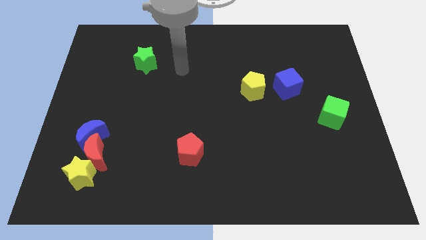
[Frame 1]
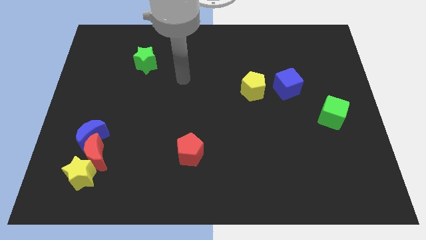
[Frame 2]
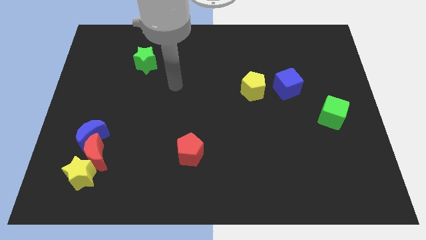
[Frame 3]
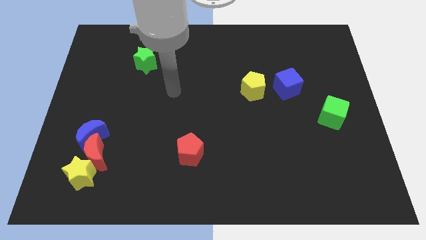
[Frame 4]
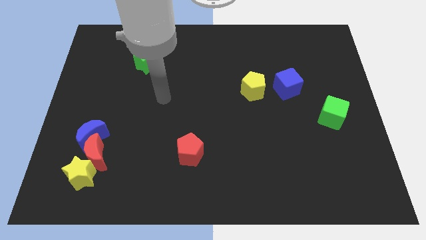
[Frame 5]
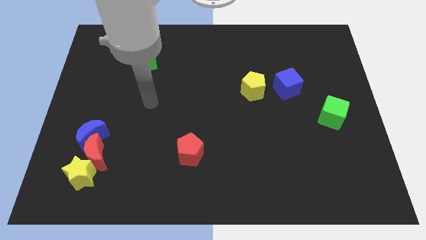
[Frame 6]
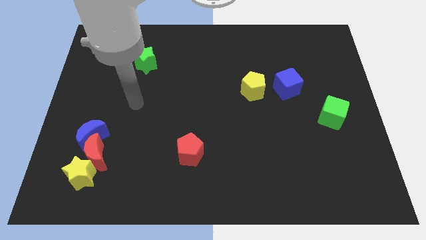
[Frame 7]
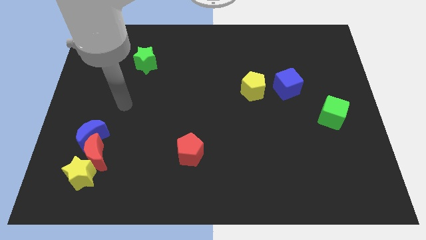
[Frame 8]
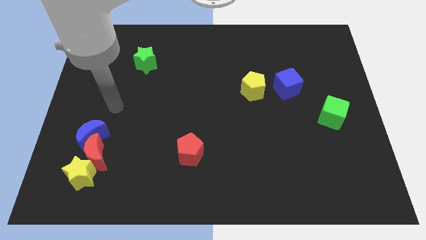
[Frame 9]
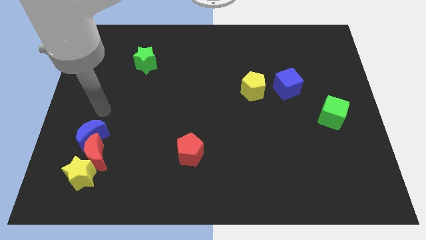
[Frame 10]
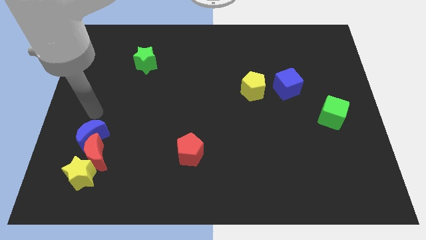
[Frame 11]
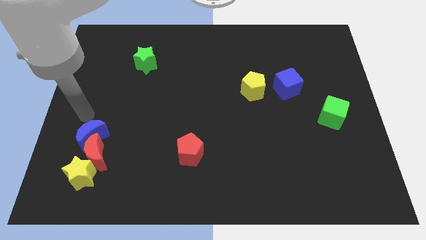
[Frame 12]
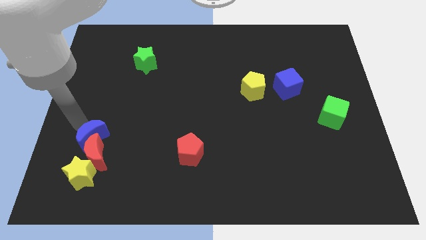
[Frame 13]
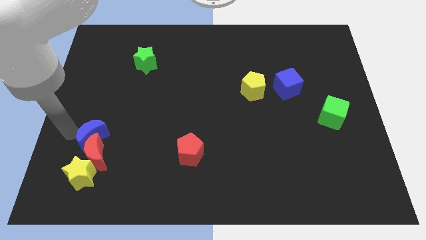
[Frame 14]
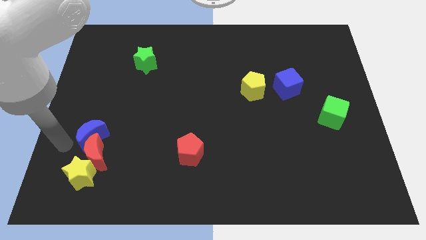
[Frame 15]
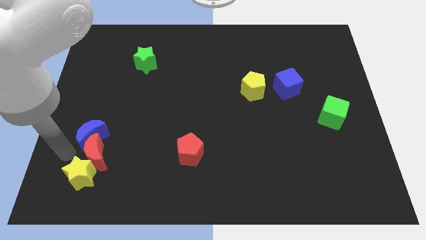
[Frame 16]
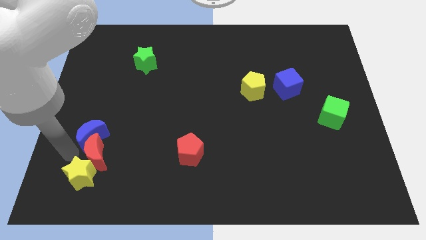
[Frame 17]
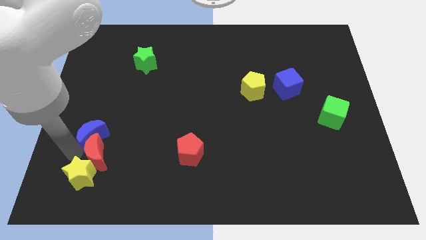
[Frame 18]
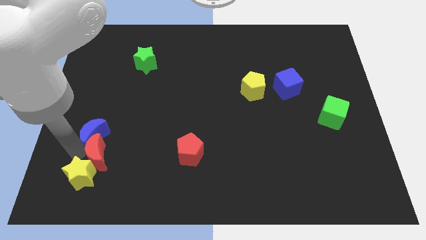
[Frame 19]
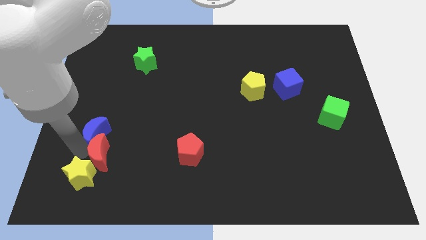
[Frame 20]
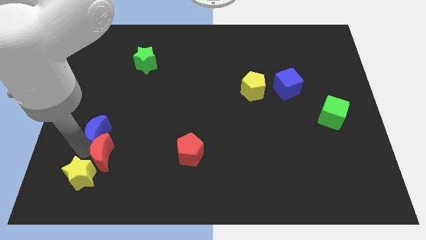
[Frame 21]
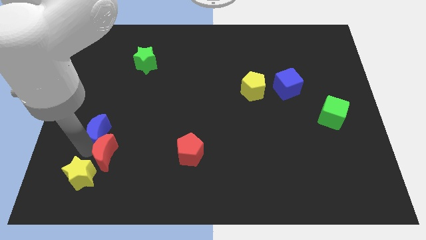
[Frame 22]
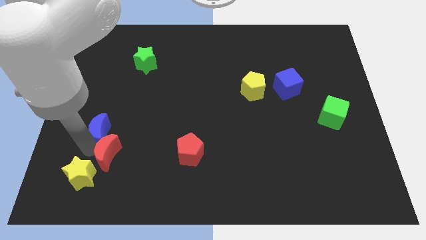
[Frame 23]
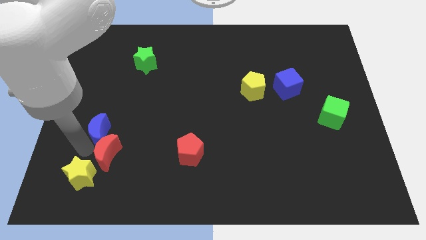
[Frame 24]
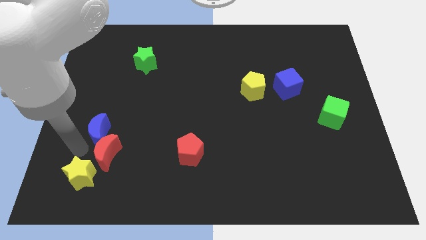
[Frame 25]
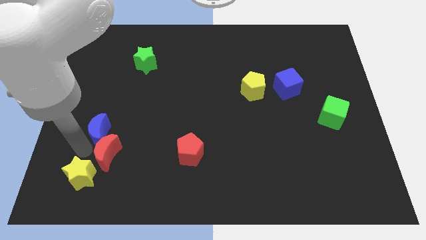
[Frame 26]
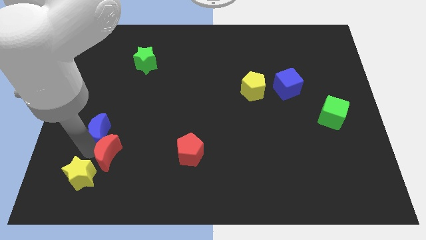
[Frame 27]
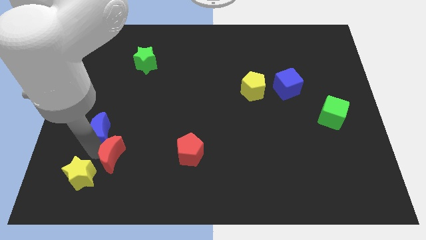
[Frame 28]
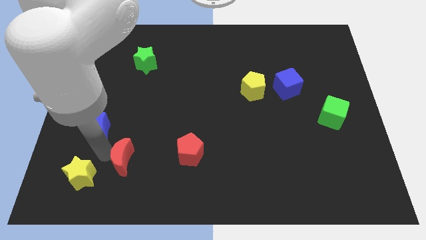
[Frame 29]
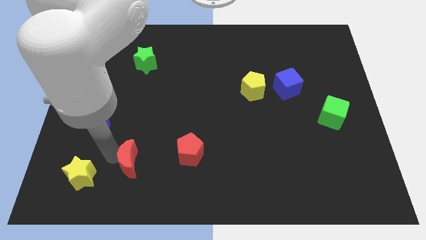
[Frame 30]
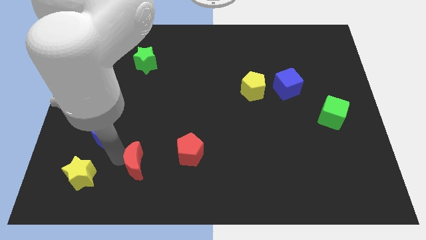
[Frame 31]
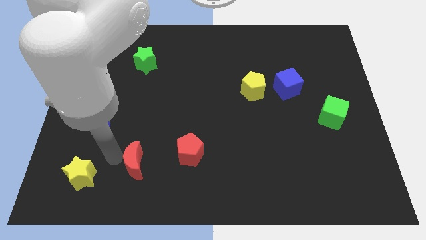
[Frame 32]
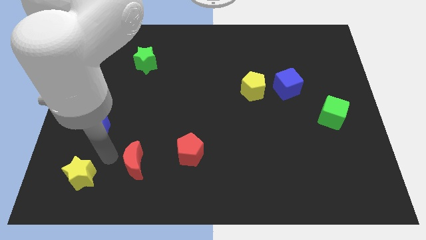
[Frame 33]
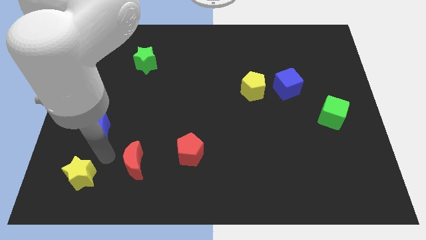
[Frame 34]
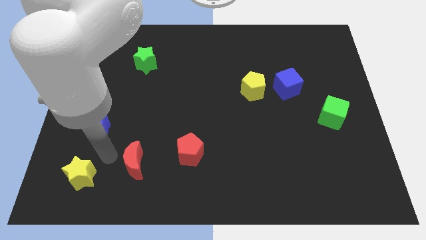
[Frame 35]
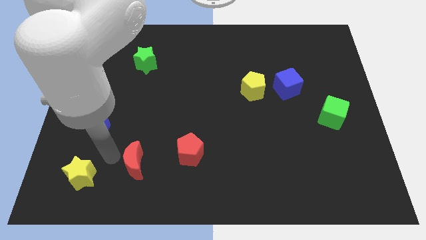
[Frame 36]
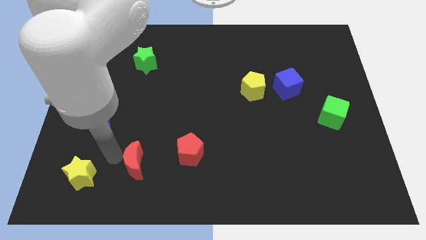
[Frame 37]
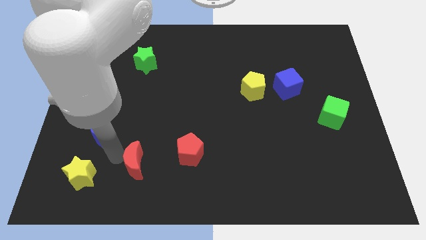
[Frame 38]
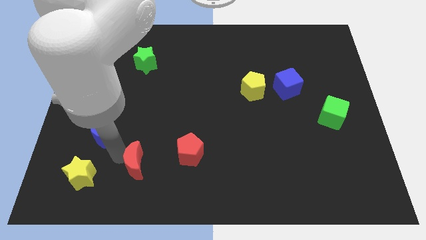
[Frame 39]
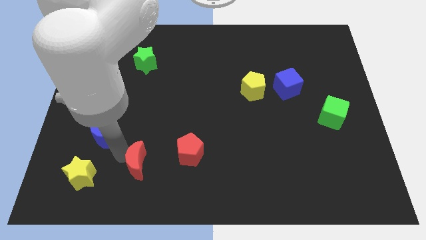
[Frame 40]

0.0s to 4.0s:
separate the red moon from the blue moon and yellow star

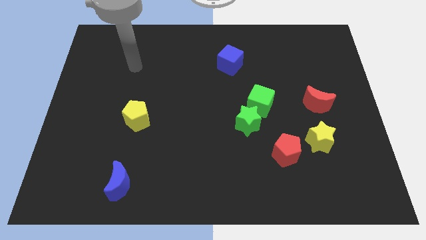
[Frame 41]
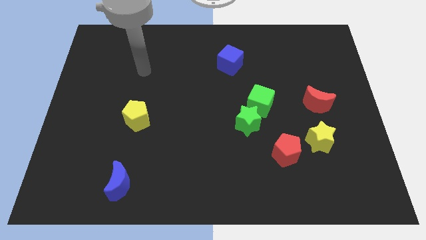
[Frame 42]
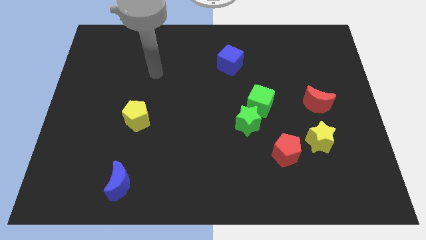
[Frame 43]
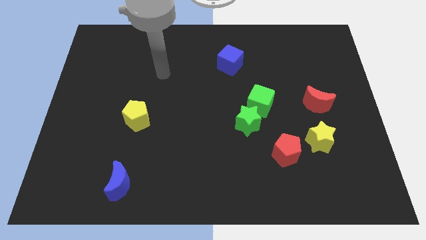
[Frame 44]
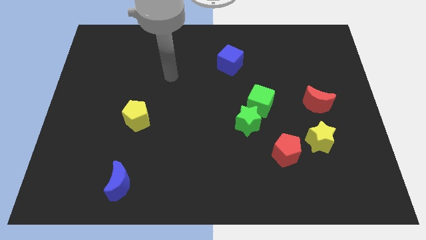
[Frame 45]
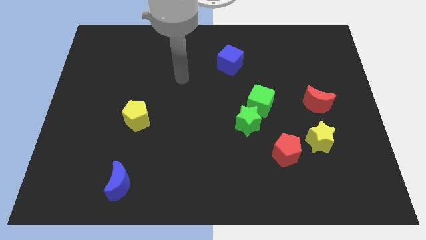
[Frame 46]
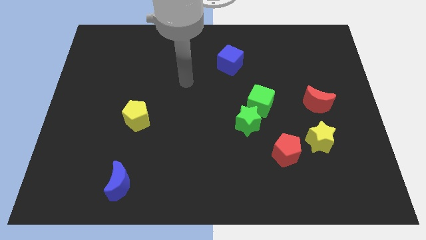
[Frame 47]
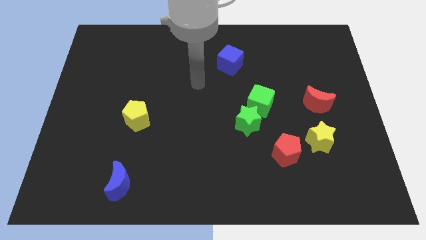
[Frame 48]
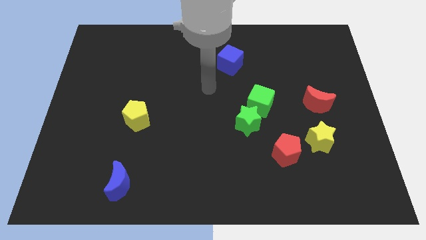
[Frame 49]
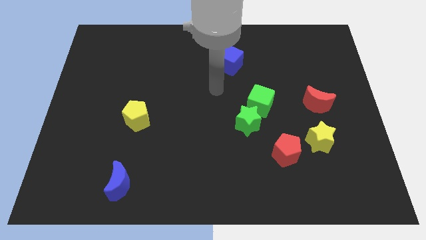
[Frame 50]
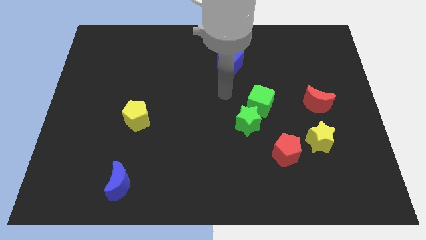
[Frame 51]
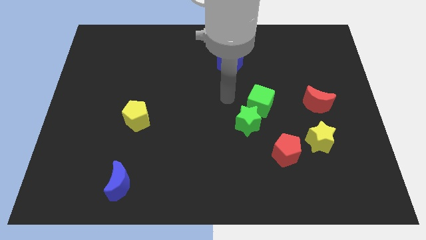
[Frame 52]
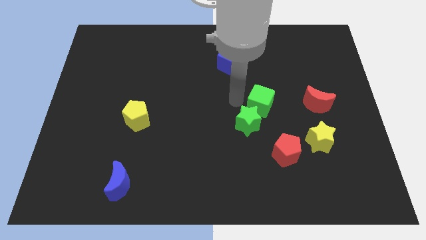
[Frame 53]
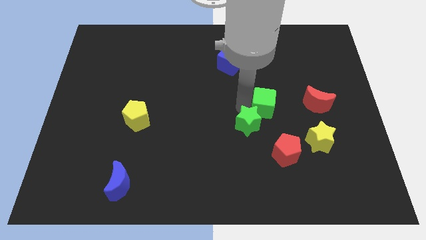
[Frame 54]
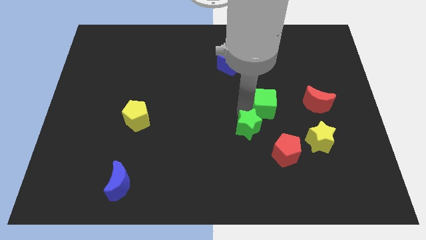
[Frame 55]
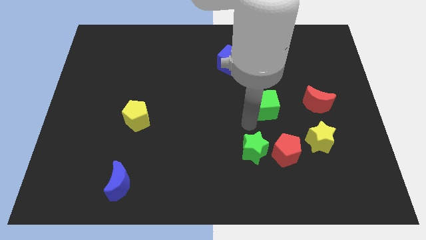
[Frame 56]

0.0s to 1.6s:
separate the green cube from the green star

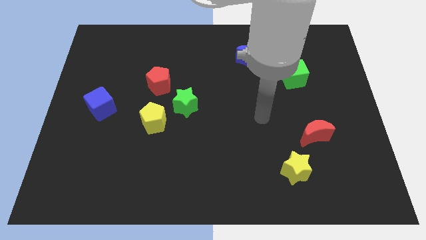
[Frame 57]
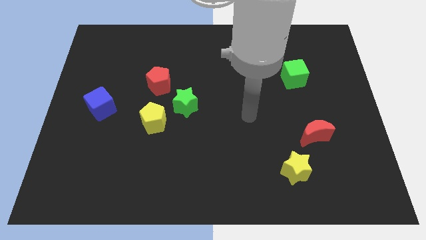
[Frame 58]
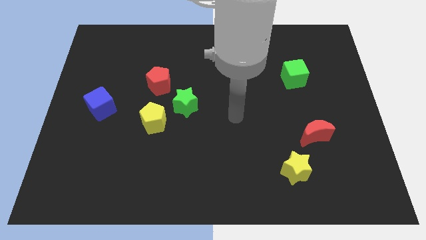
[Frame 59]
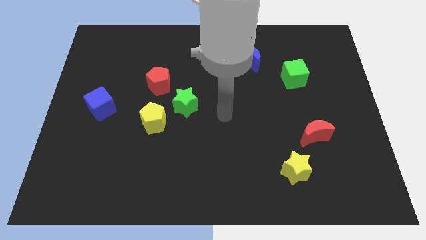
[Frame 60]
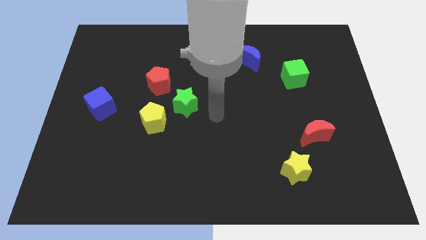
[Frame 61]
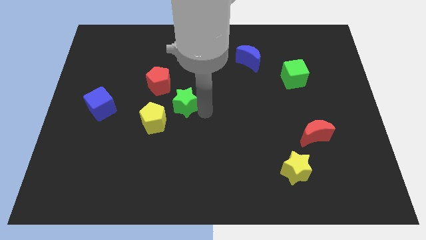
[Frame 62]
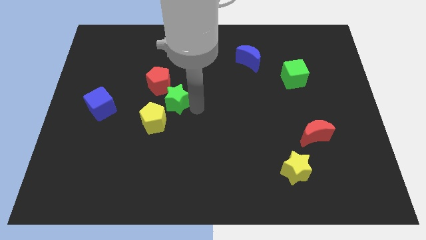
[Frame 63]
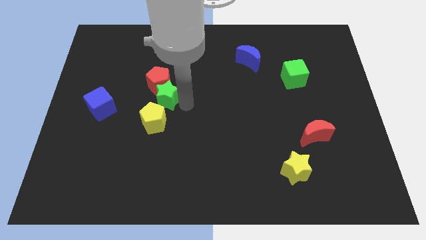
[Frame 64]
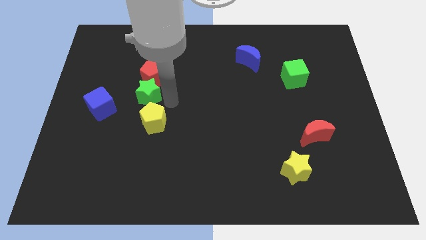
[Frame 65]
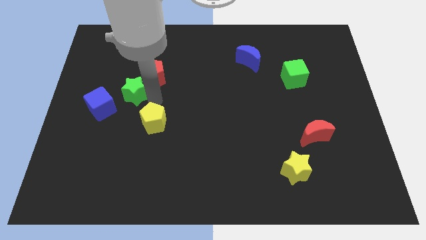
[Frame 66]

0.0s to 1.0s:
move the yellow pentagon away from the green star

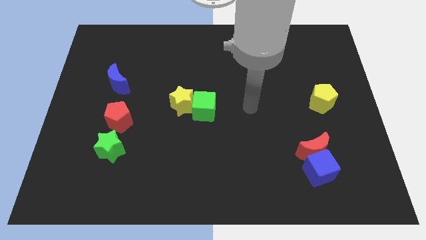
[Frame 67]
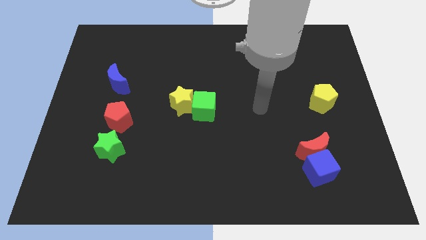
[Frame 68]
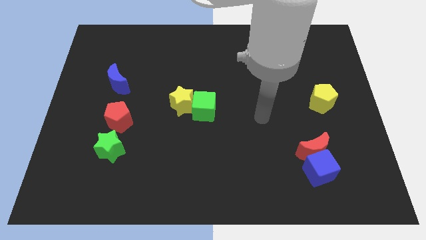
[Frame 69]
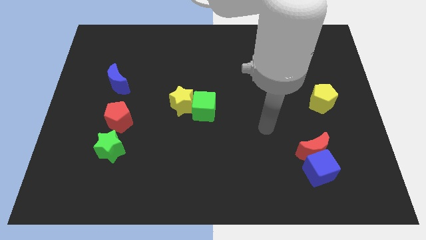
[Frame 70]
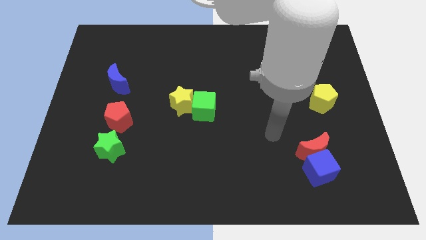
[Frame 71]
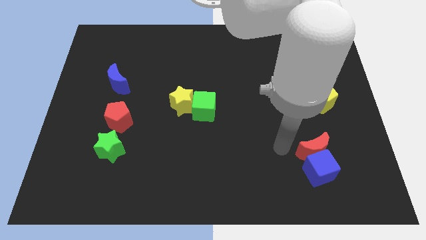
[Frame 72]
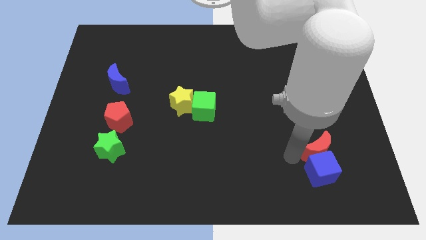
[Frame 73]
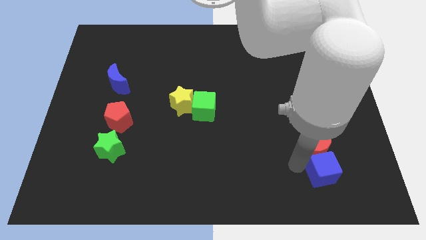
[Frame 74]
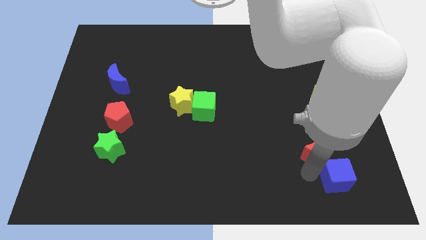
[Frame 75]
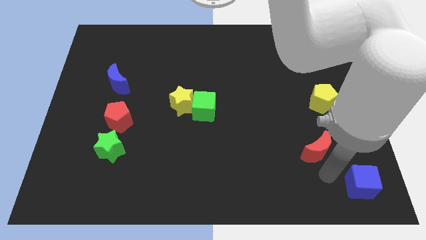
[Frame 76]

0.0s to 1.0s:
move the red moon away from the blue cube

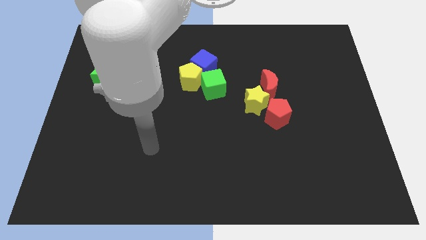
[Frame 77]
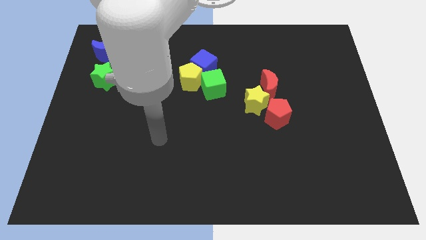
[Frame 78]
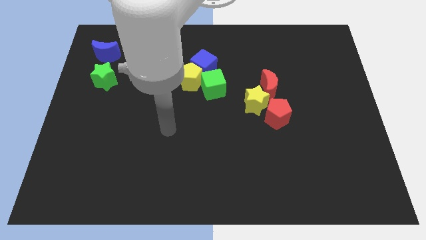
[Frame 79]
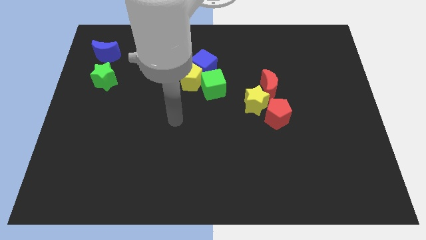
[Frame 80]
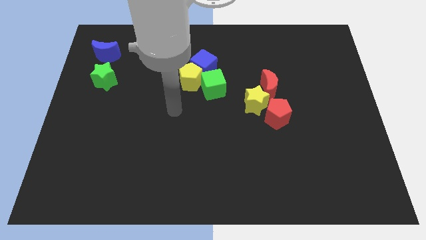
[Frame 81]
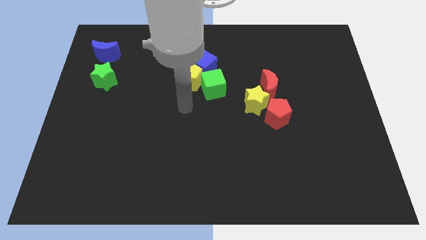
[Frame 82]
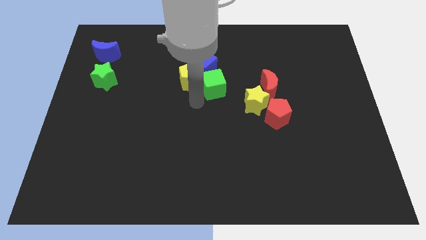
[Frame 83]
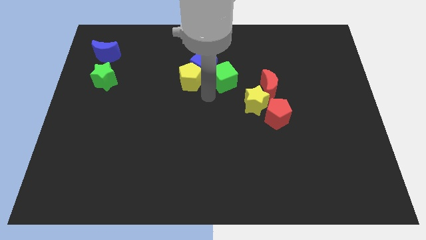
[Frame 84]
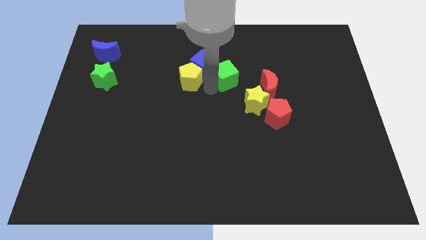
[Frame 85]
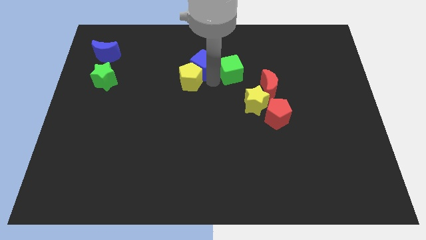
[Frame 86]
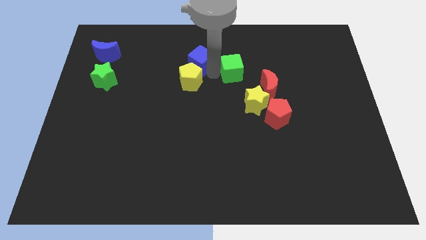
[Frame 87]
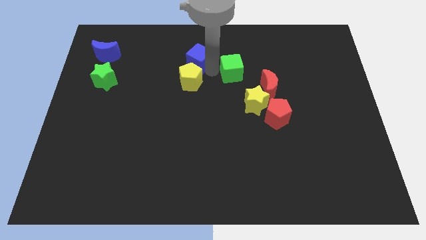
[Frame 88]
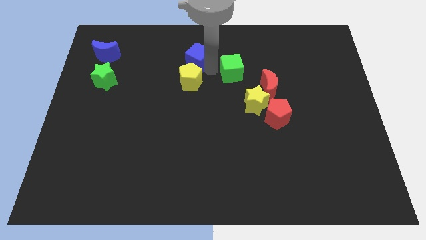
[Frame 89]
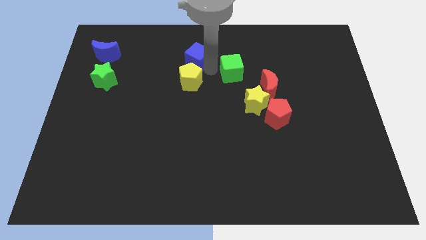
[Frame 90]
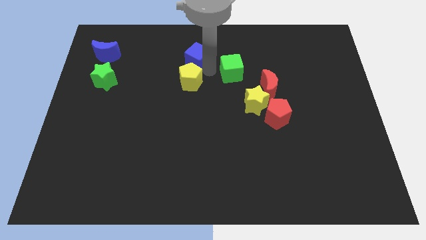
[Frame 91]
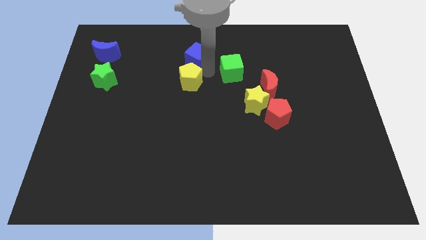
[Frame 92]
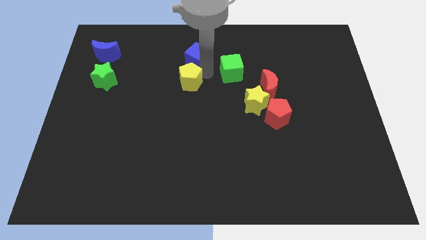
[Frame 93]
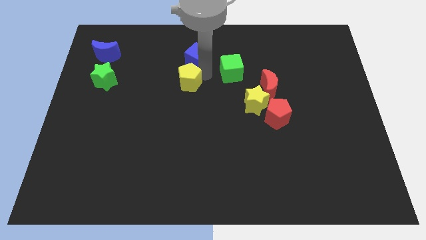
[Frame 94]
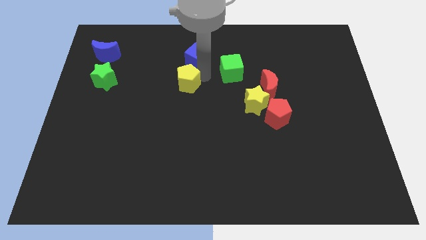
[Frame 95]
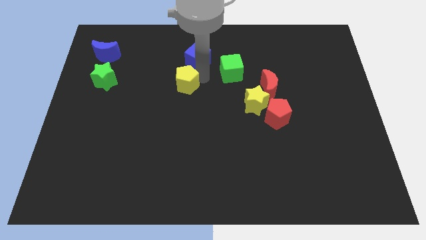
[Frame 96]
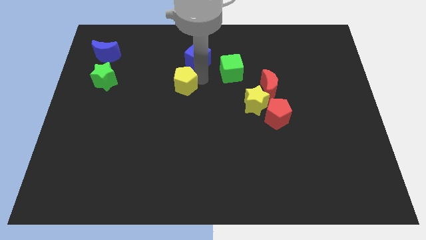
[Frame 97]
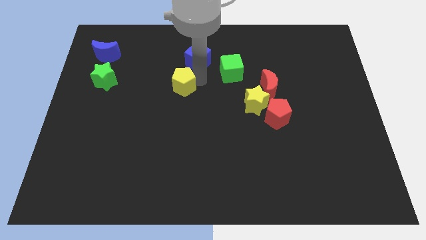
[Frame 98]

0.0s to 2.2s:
separate the yellow pentagon from the blue cube and green cube
